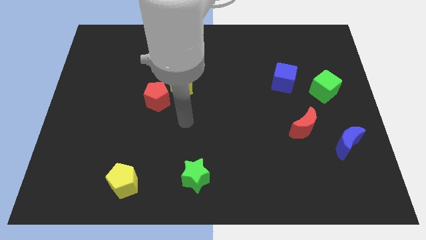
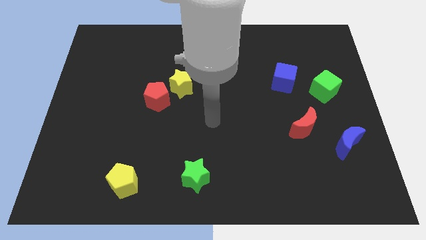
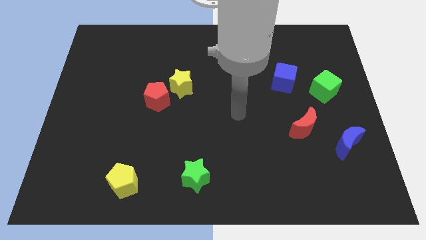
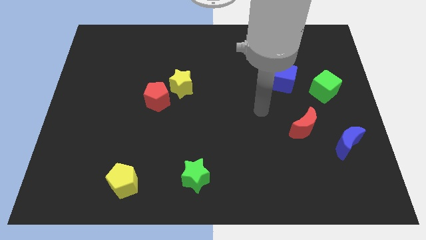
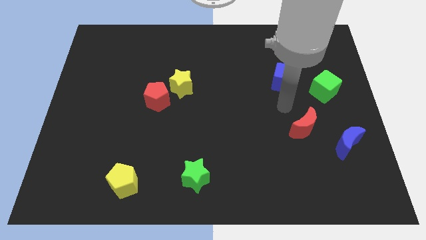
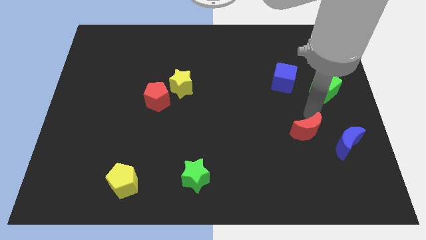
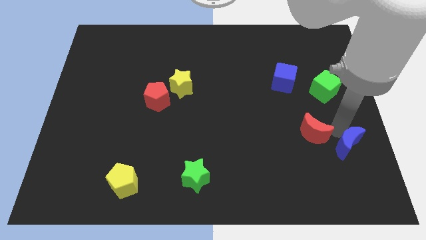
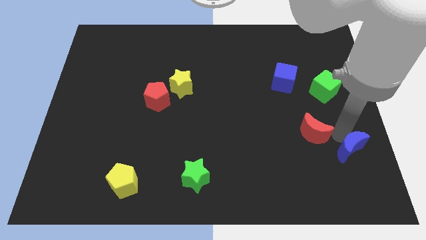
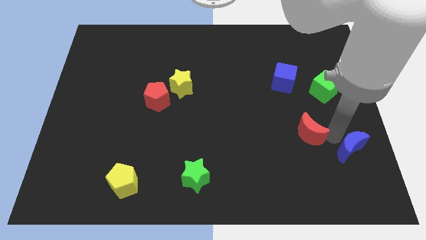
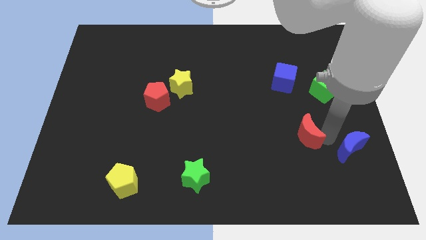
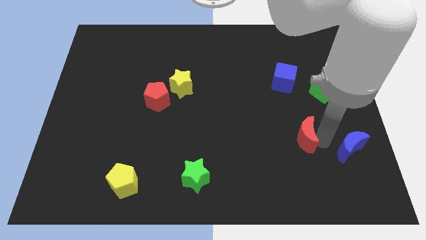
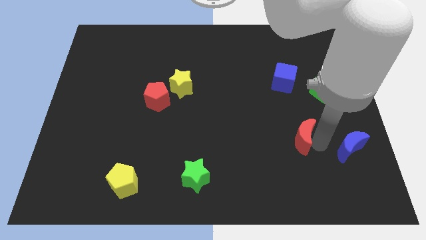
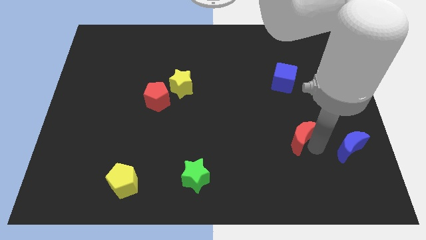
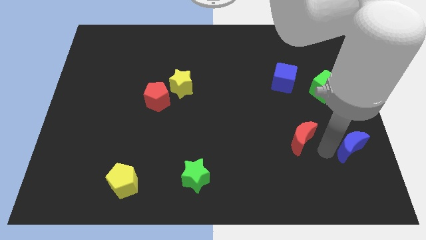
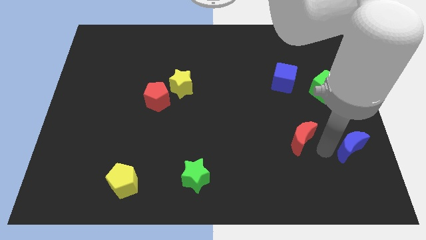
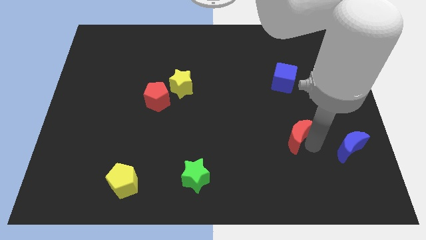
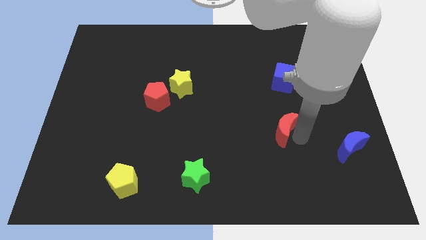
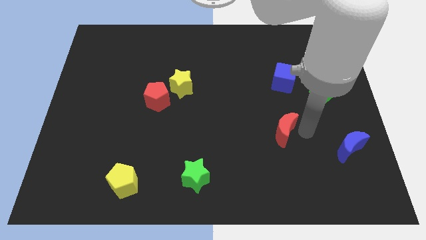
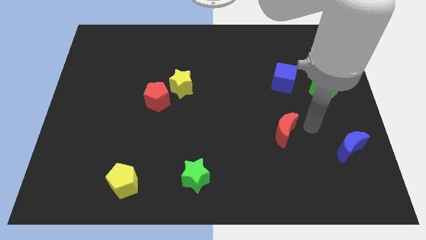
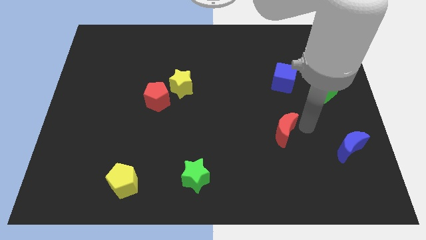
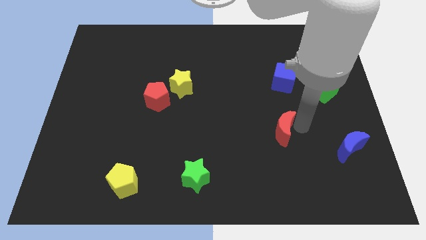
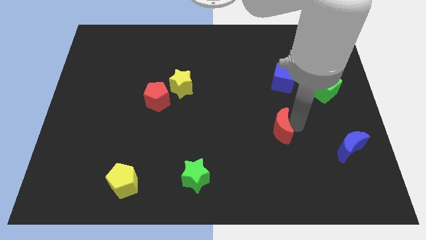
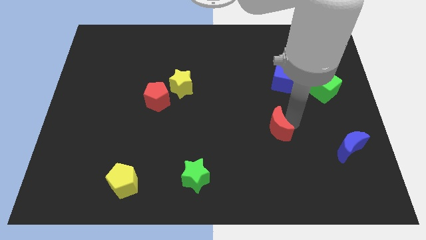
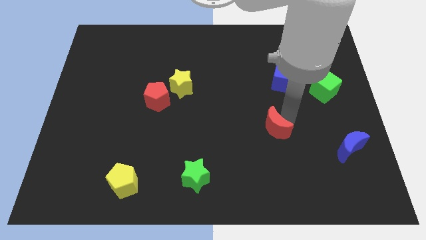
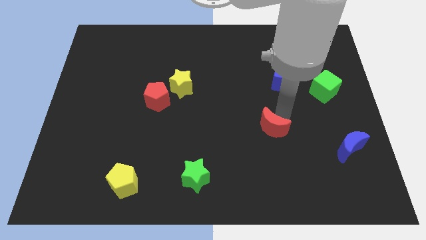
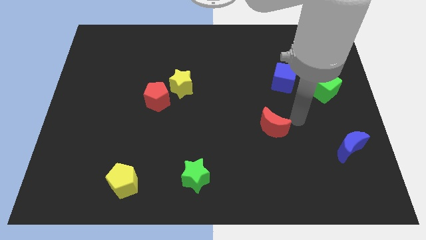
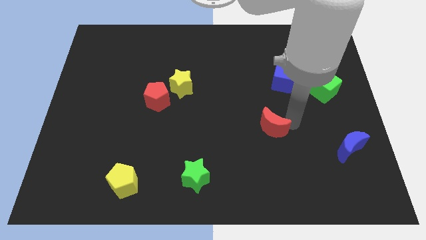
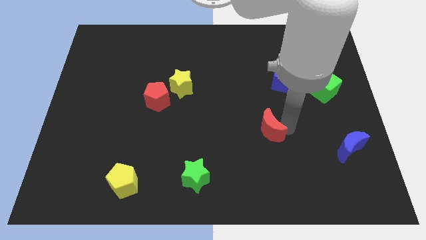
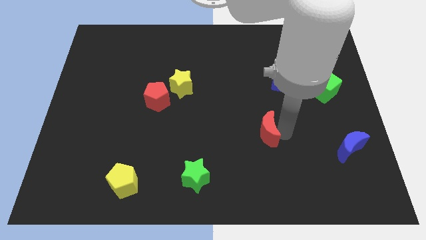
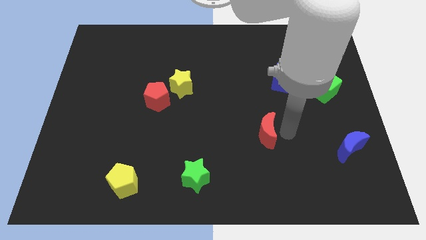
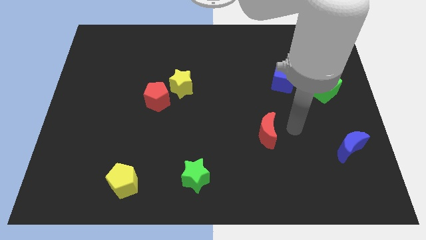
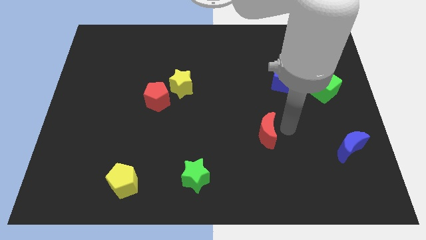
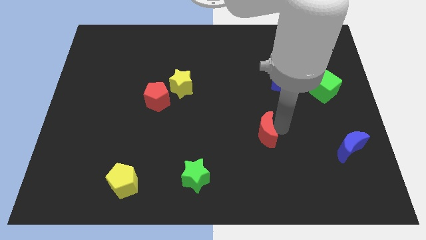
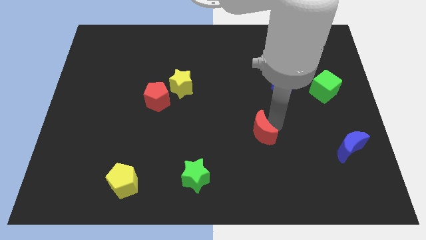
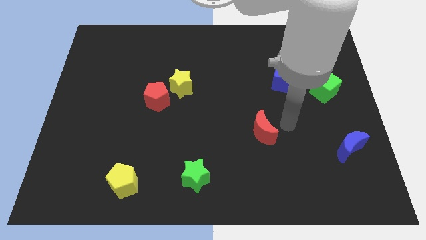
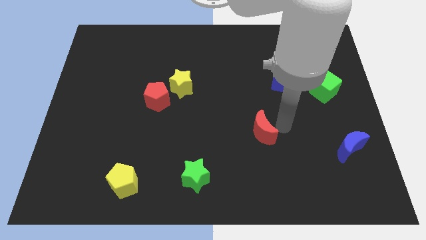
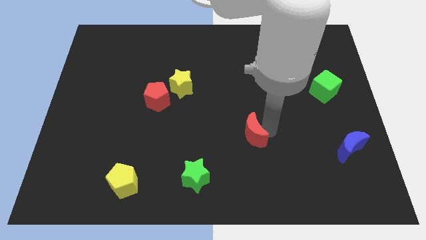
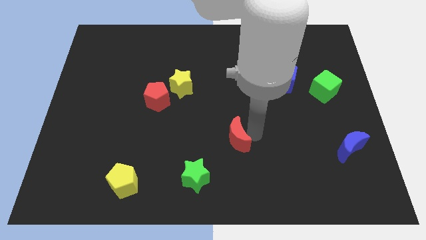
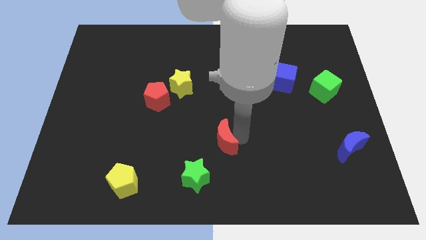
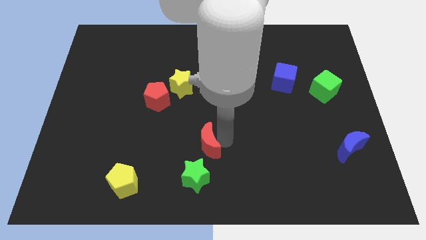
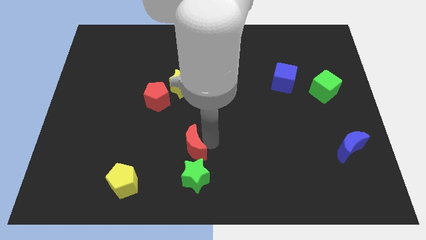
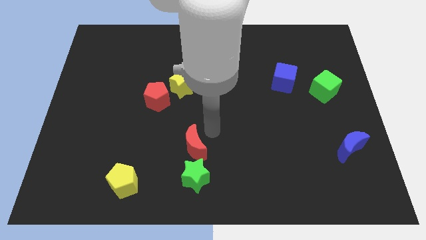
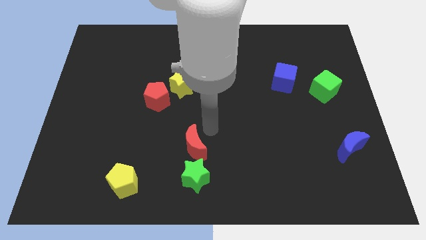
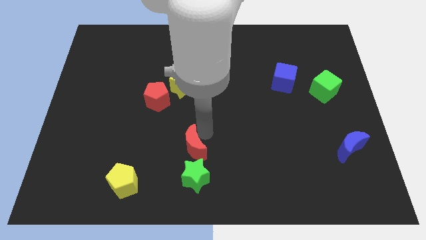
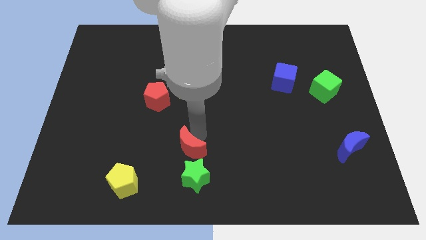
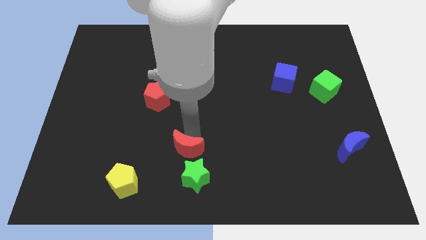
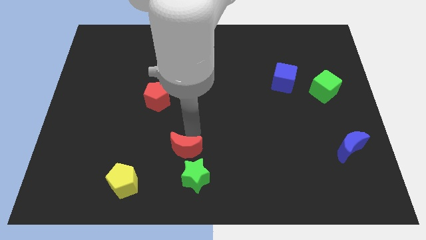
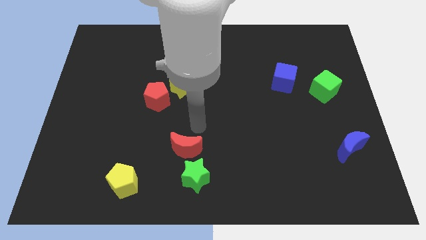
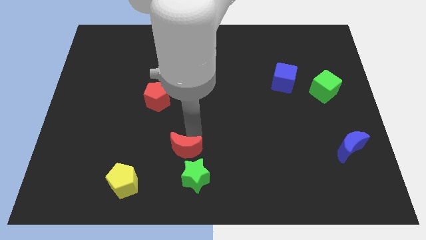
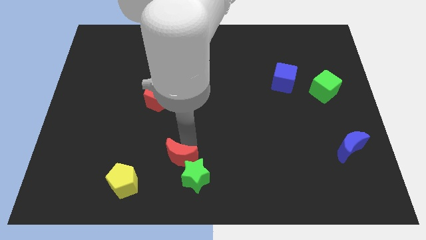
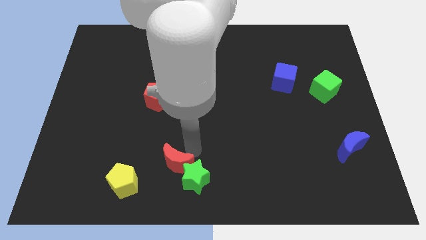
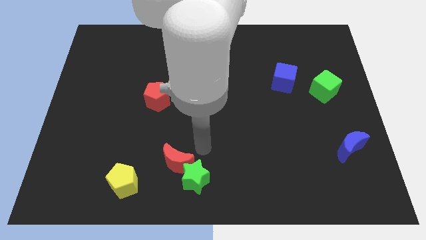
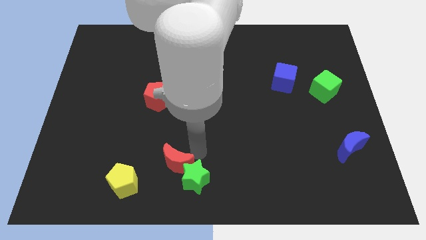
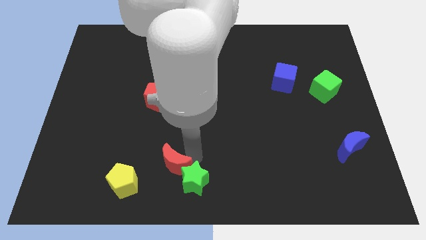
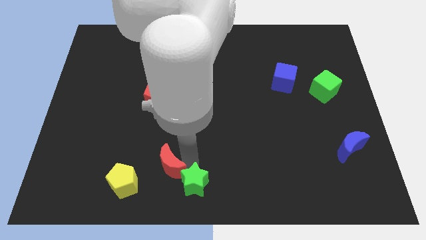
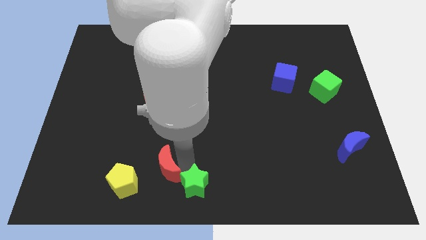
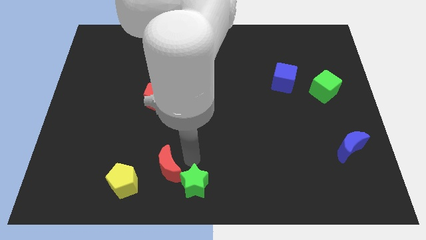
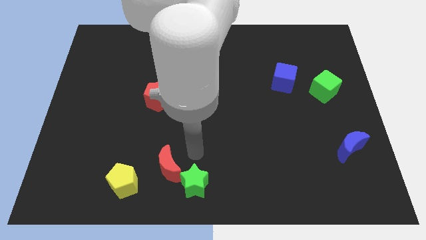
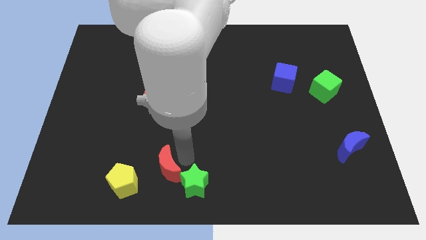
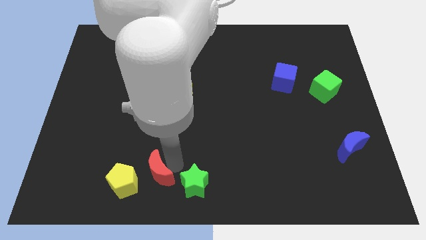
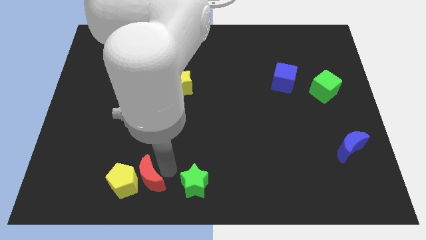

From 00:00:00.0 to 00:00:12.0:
slide the red moon next to the yellow pentagon

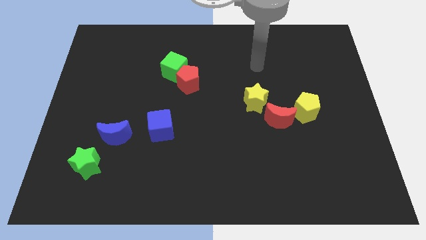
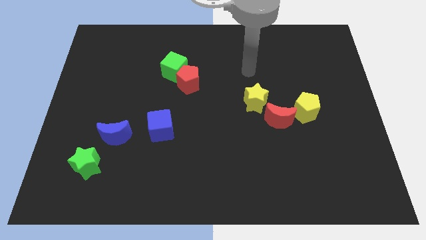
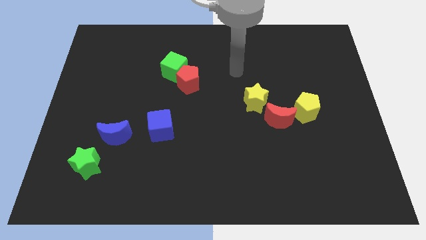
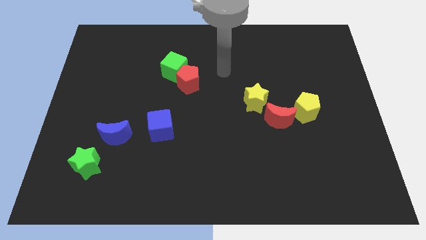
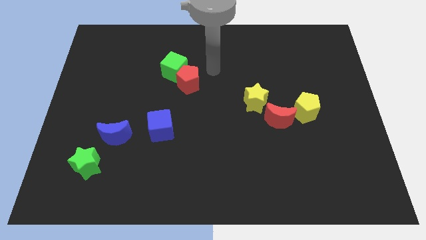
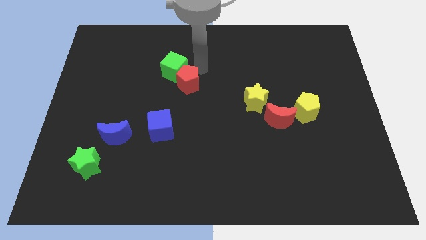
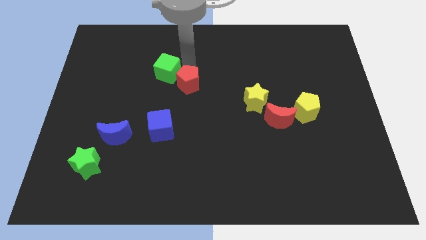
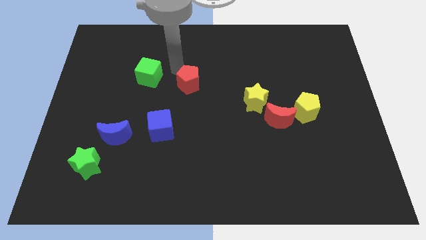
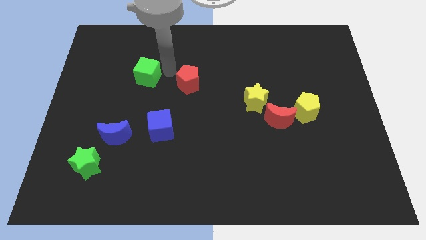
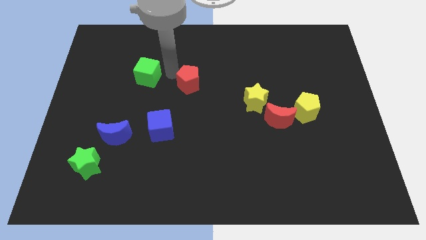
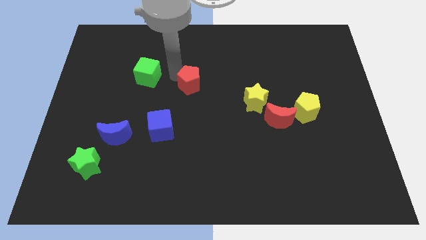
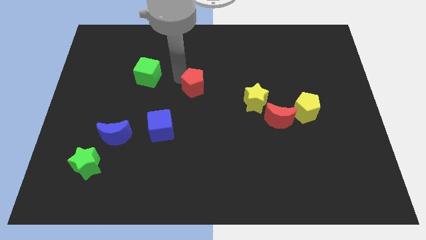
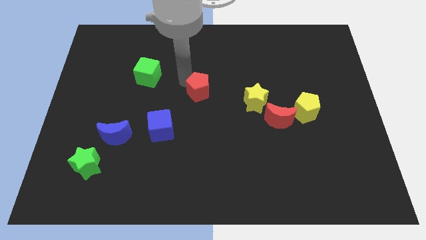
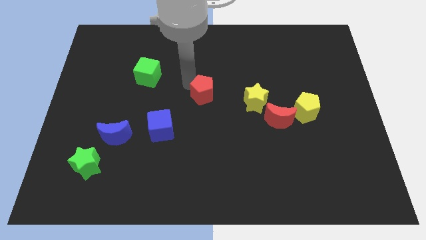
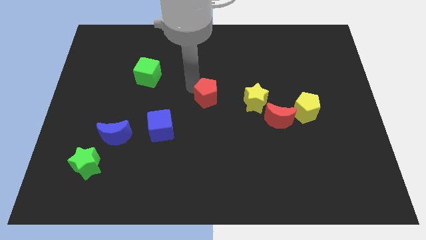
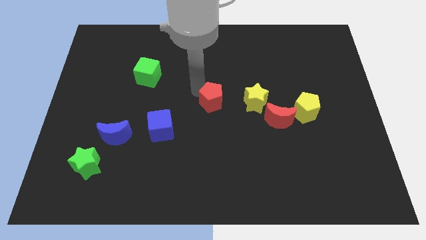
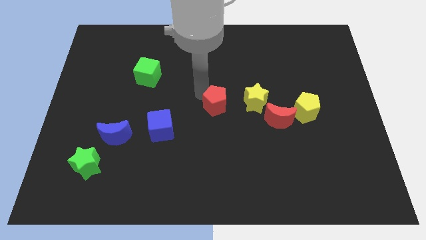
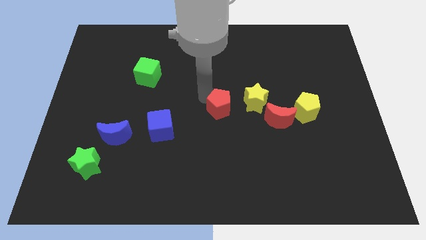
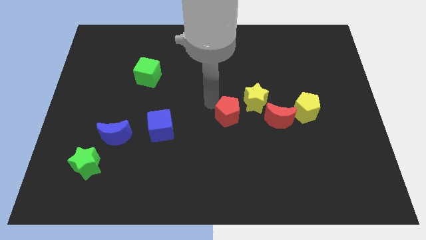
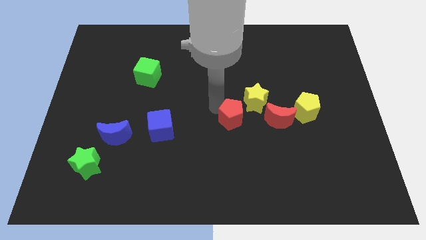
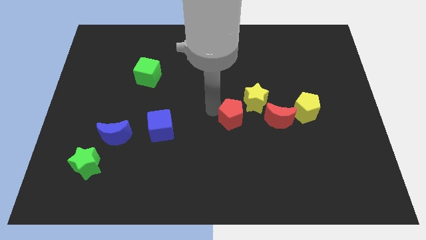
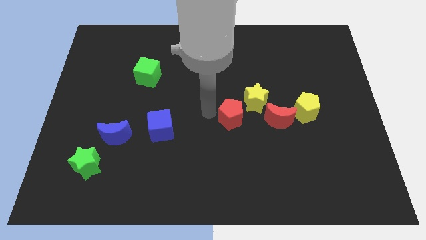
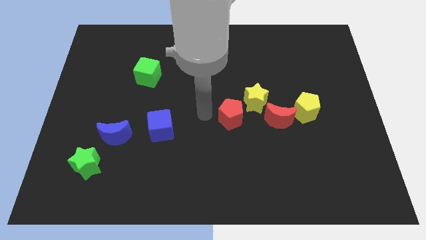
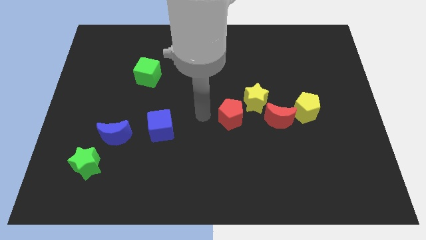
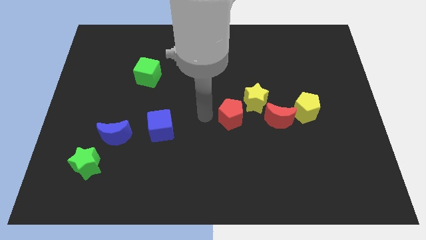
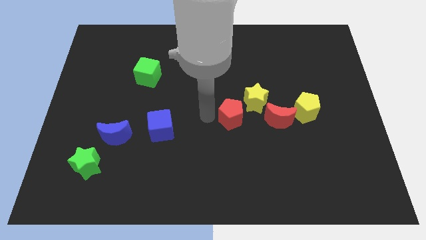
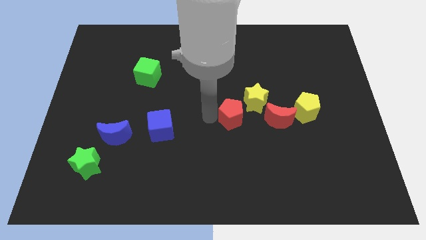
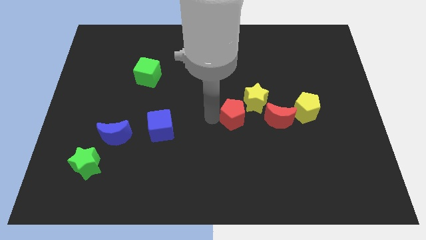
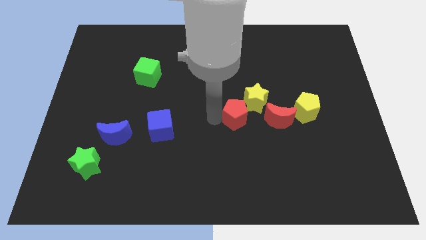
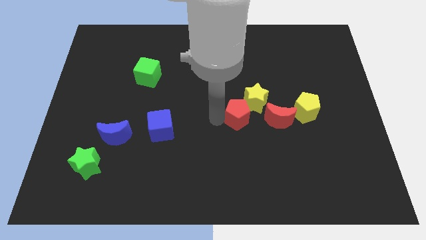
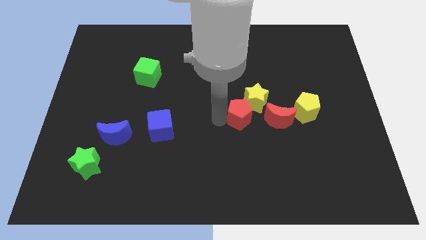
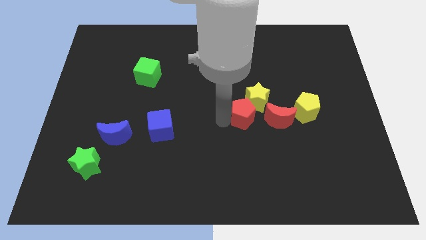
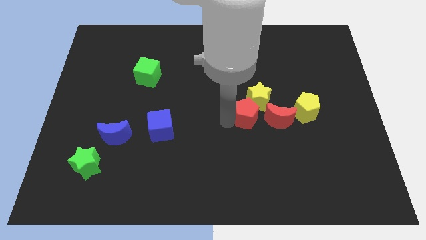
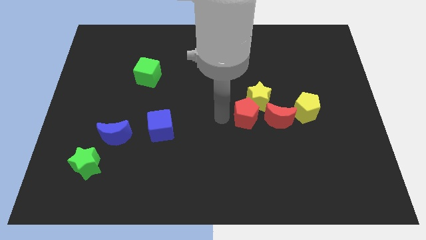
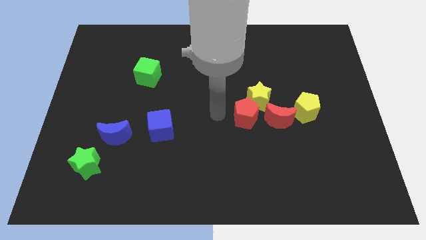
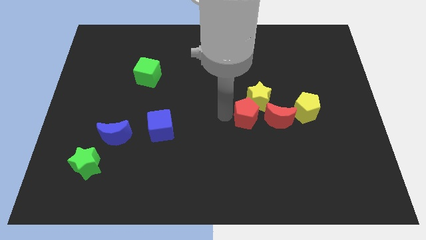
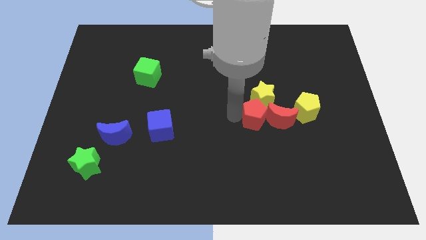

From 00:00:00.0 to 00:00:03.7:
push the red pentagon to the red moon
